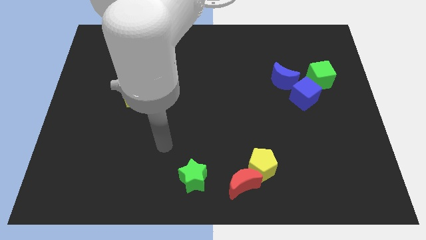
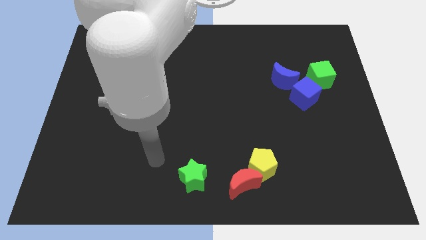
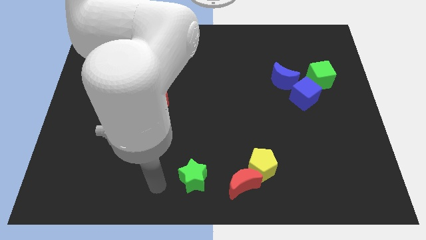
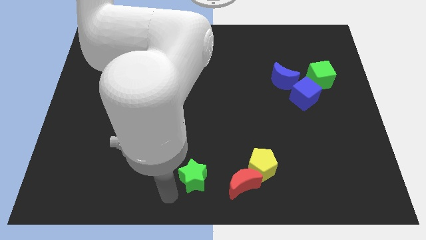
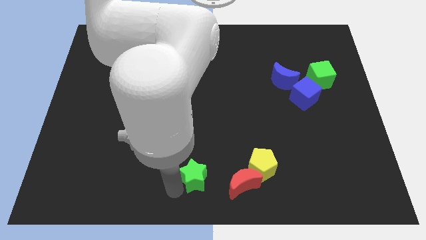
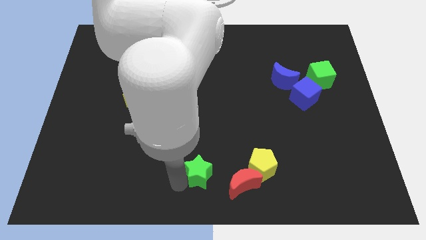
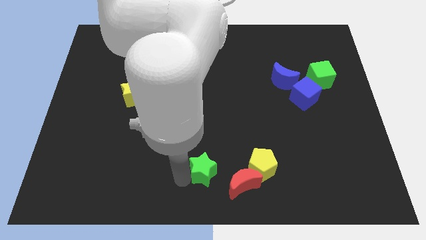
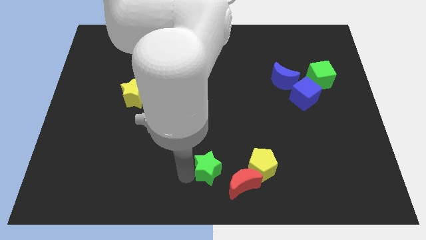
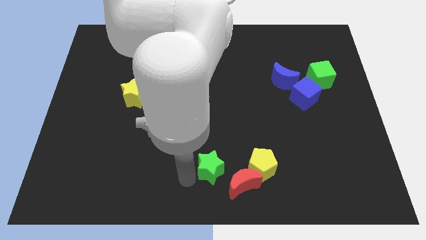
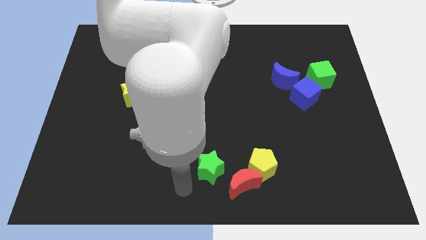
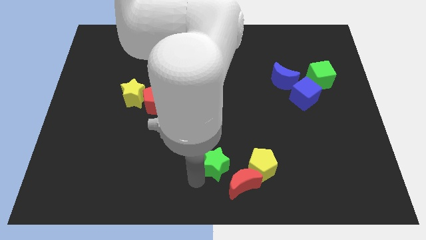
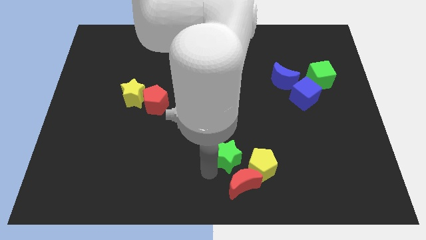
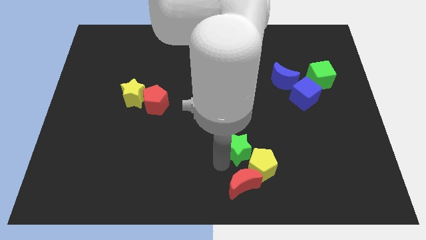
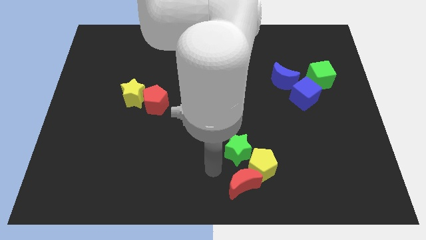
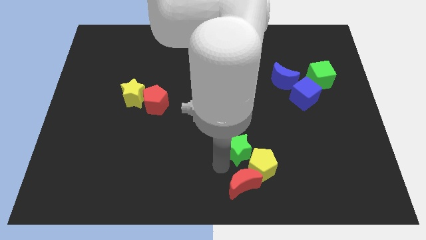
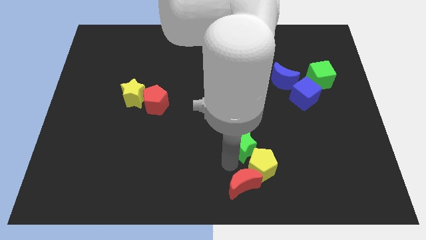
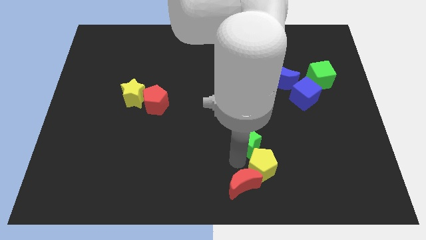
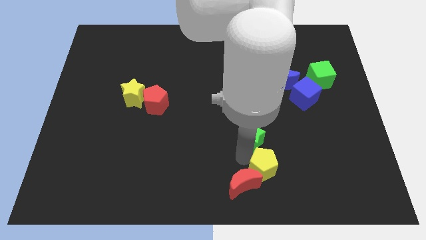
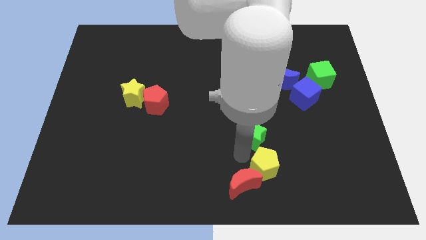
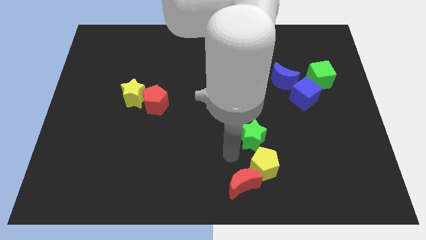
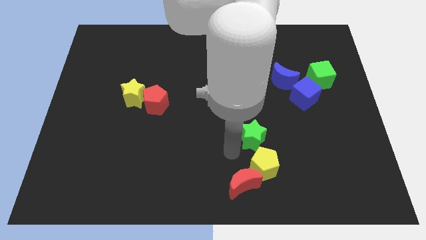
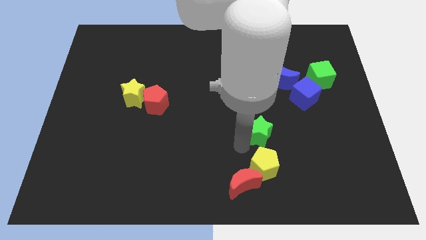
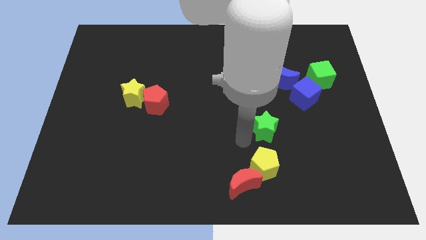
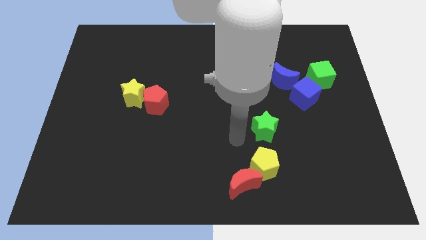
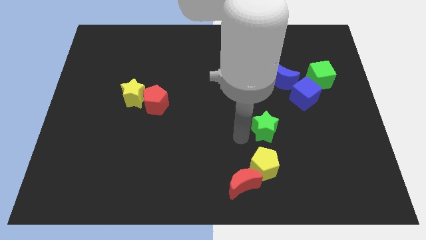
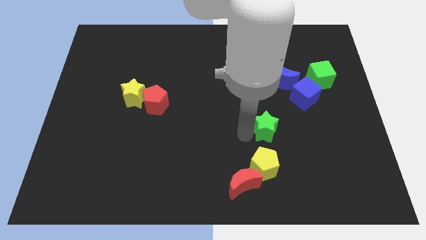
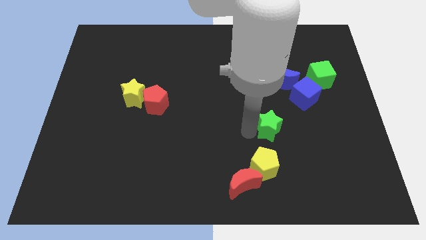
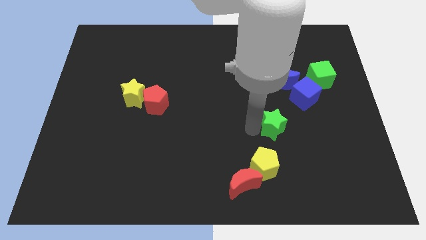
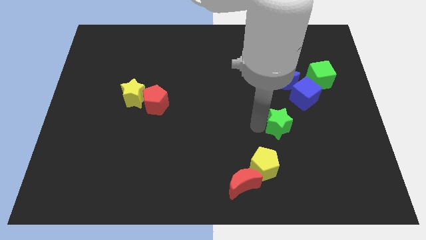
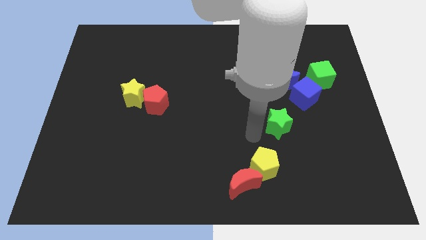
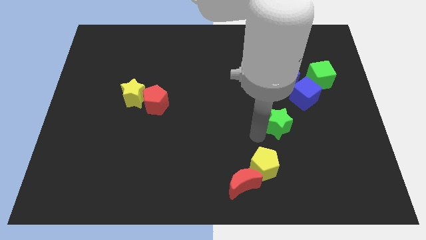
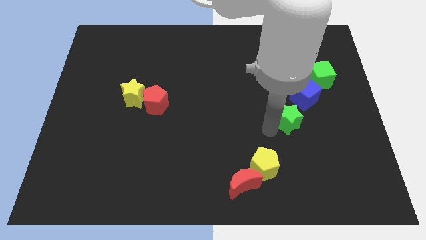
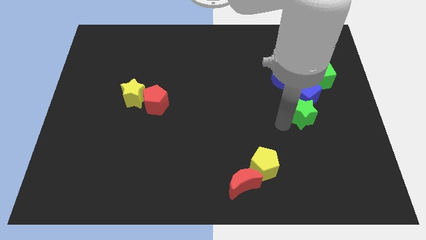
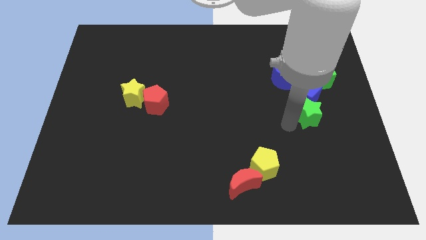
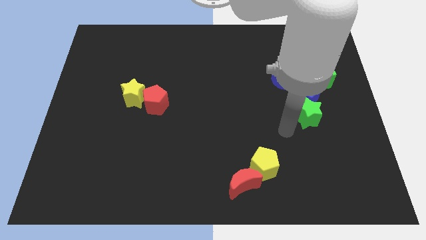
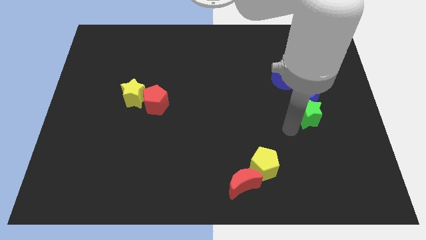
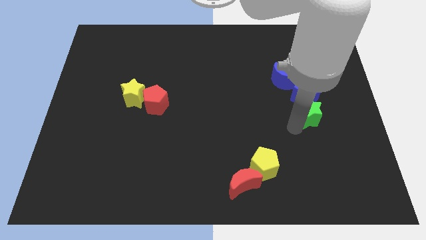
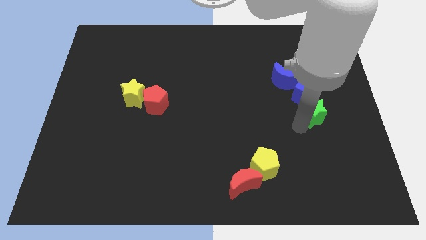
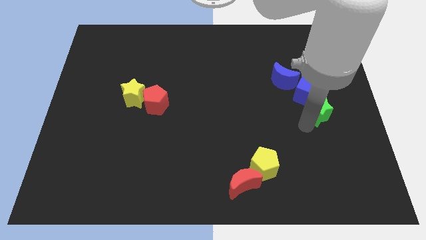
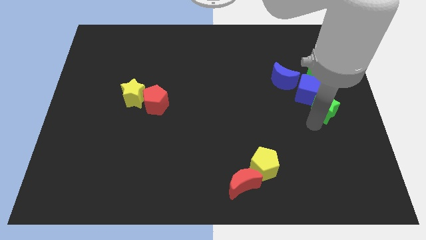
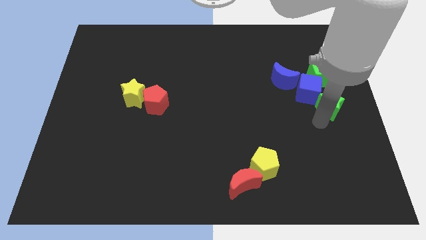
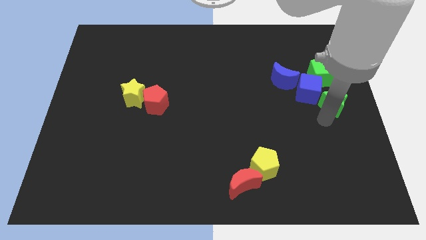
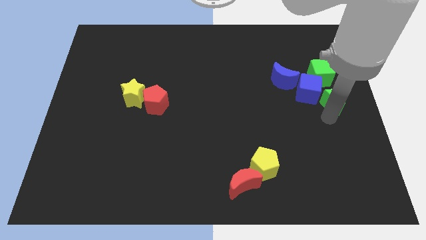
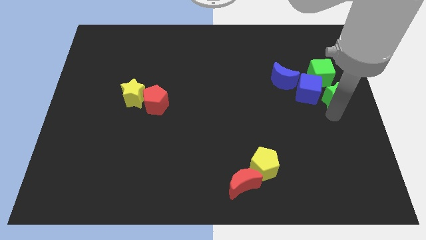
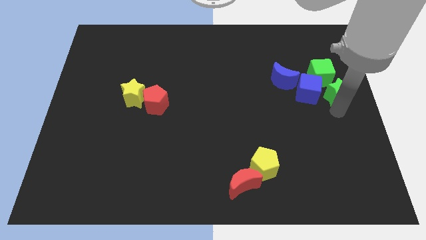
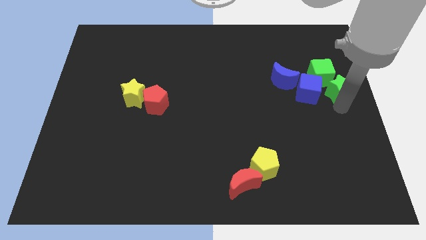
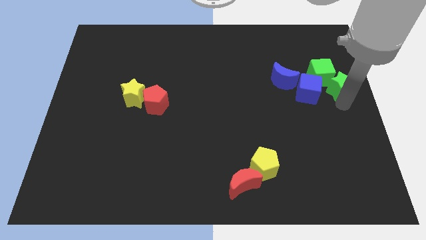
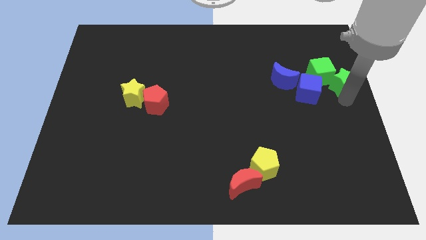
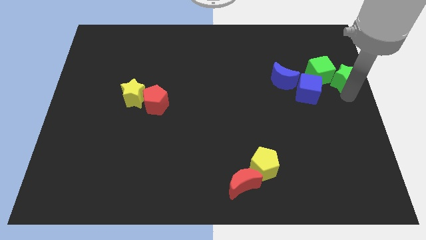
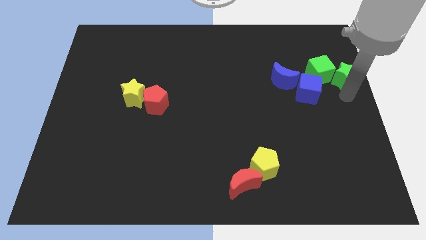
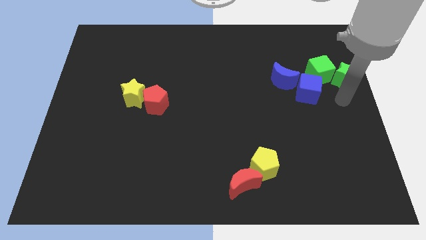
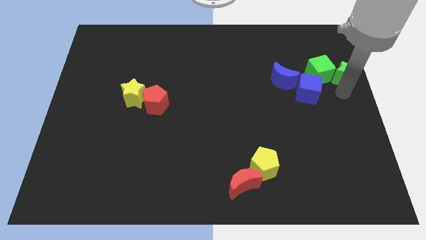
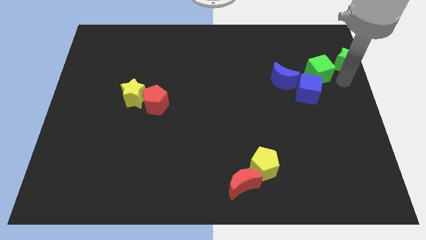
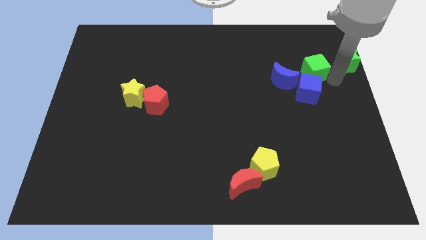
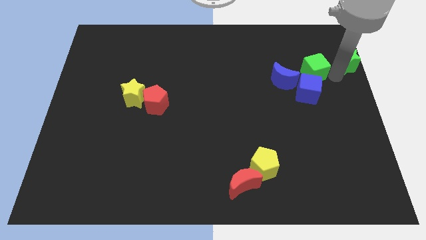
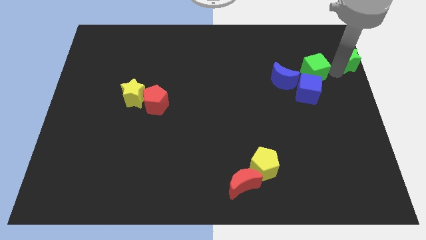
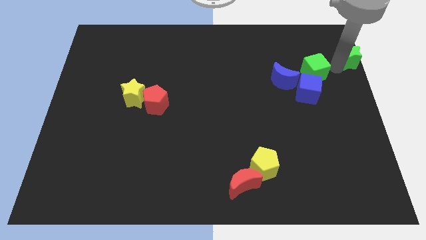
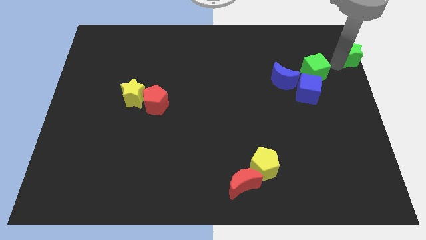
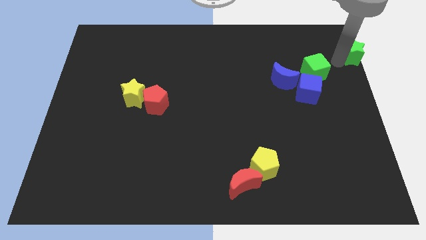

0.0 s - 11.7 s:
put the green star to the top right of the board
